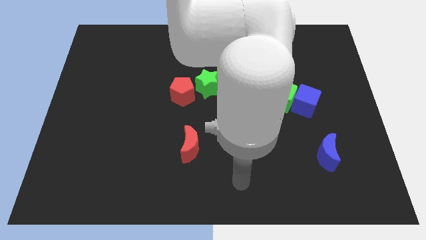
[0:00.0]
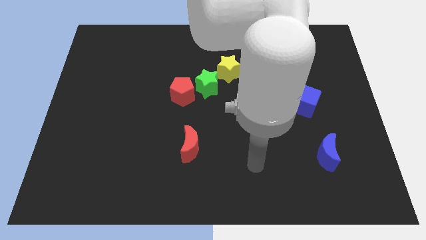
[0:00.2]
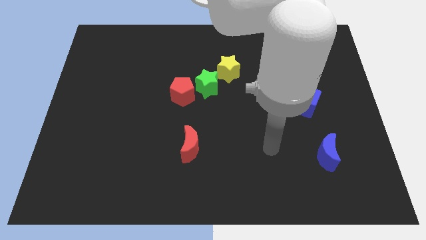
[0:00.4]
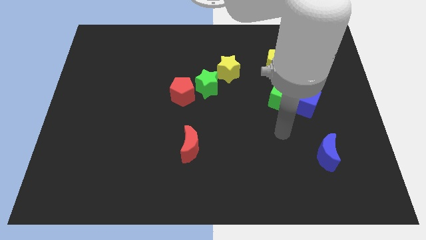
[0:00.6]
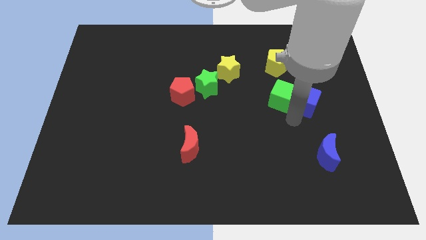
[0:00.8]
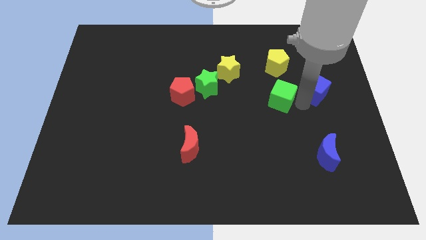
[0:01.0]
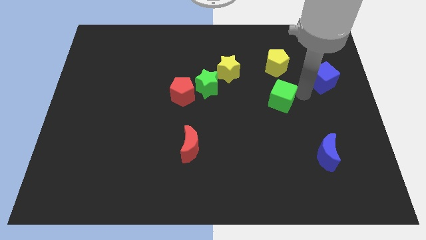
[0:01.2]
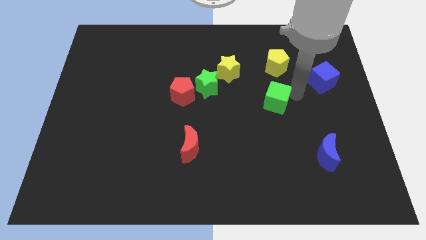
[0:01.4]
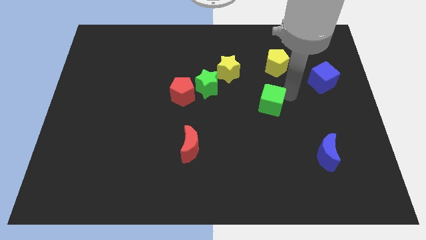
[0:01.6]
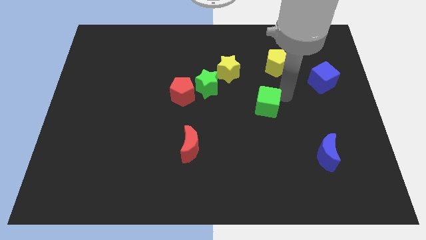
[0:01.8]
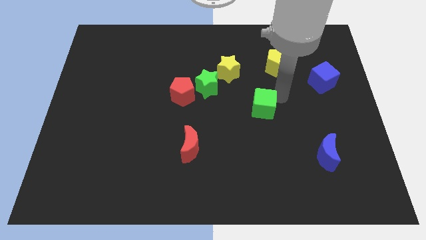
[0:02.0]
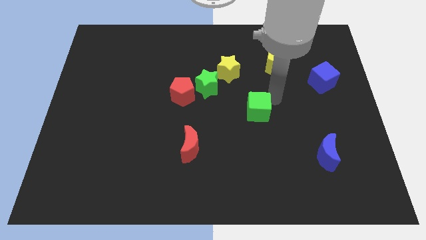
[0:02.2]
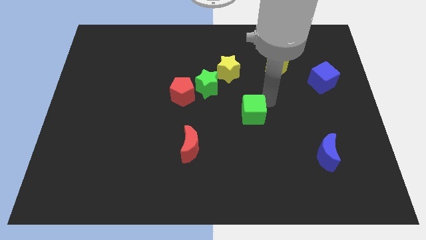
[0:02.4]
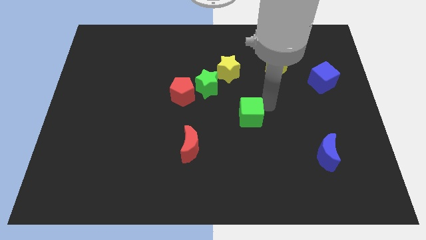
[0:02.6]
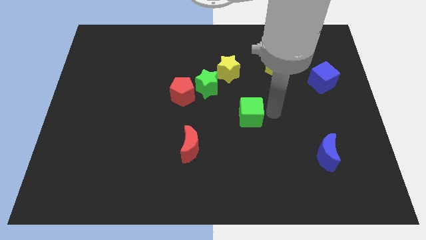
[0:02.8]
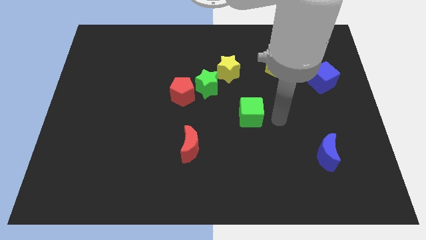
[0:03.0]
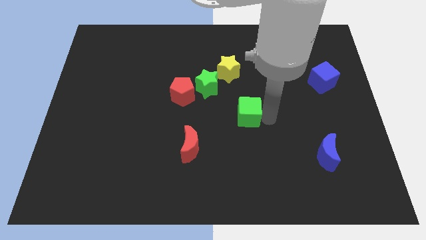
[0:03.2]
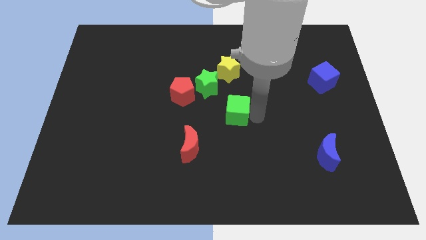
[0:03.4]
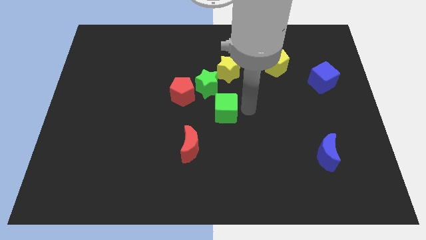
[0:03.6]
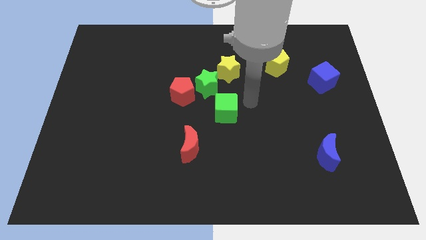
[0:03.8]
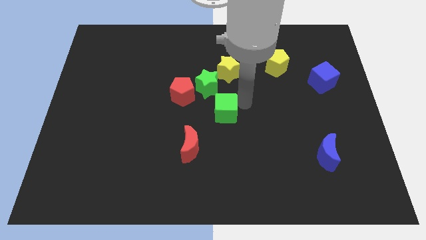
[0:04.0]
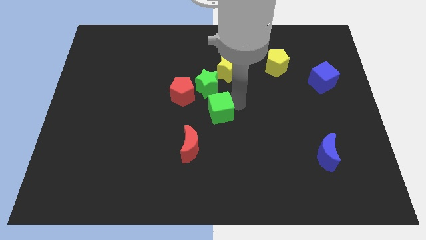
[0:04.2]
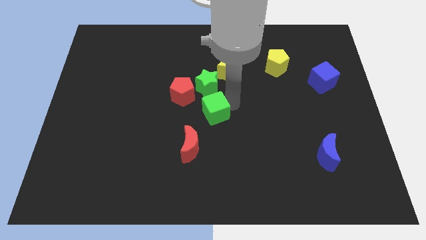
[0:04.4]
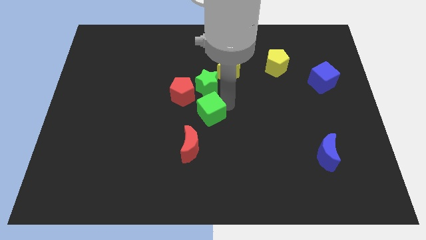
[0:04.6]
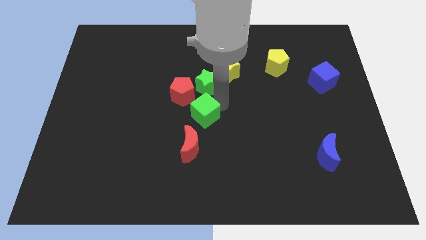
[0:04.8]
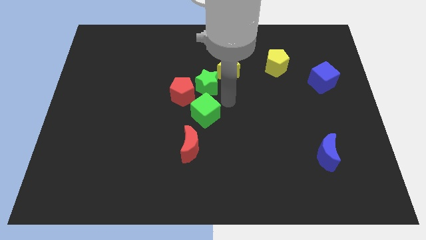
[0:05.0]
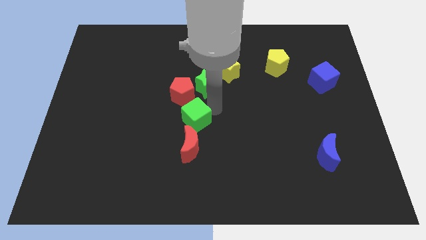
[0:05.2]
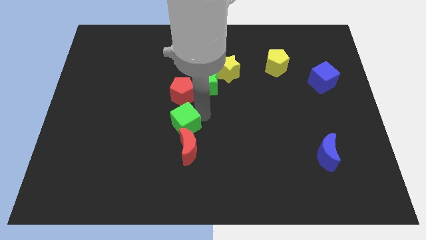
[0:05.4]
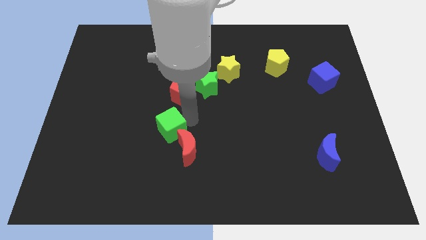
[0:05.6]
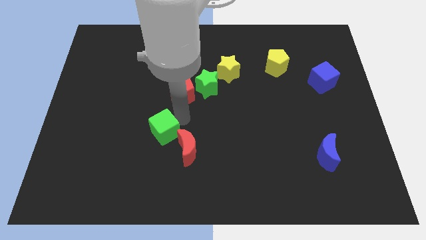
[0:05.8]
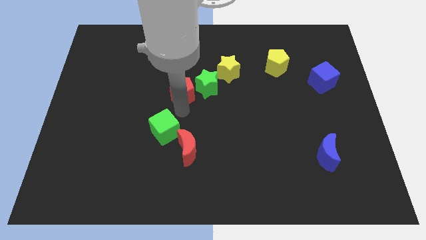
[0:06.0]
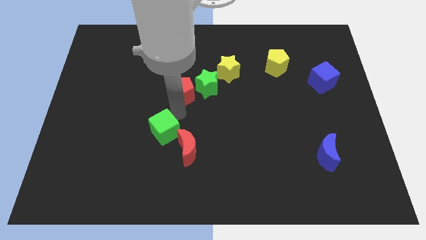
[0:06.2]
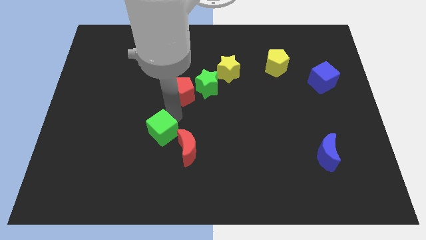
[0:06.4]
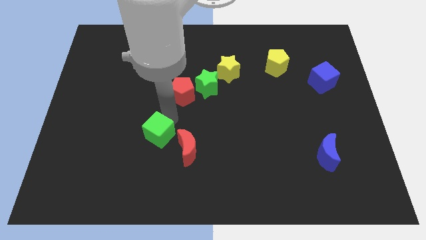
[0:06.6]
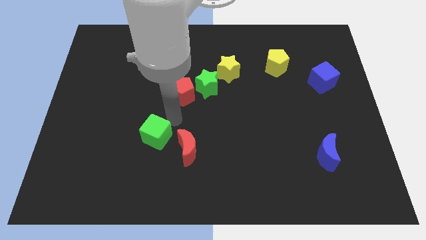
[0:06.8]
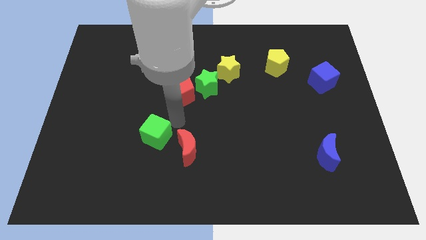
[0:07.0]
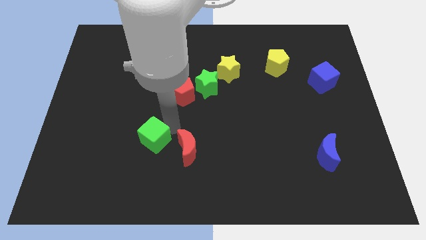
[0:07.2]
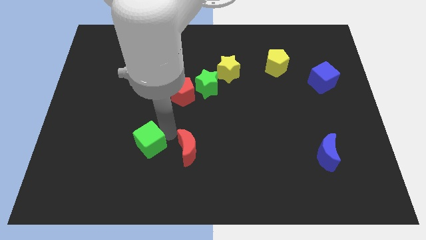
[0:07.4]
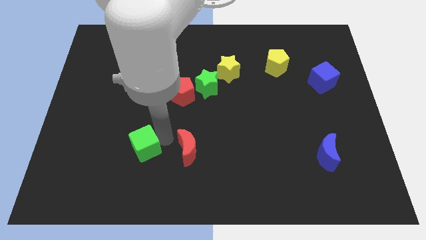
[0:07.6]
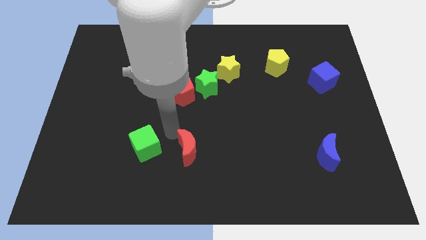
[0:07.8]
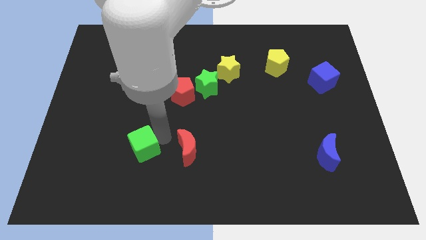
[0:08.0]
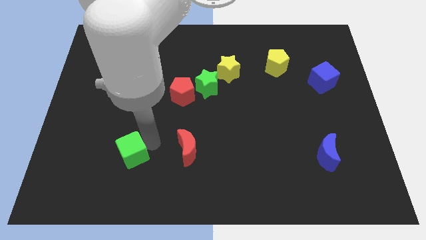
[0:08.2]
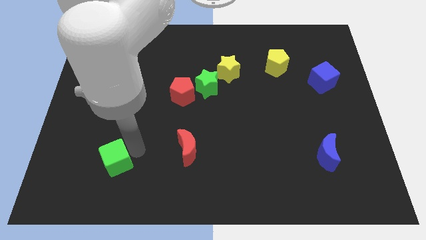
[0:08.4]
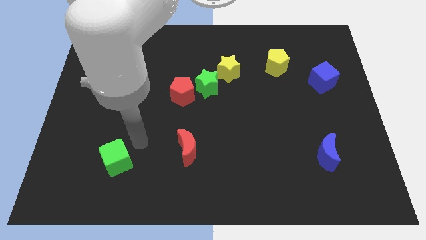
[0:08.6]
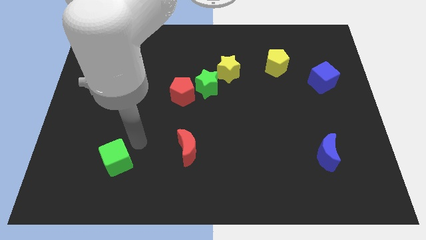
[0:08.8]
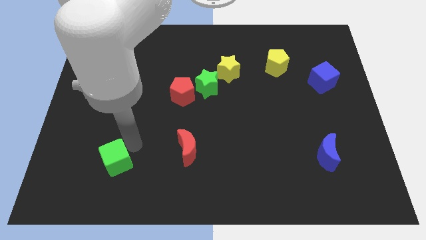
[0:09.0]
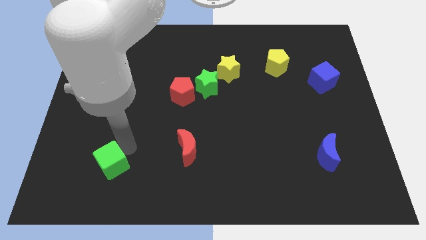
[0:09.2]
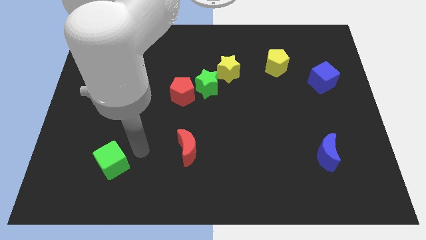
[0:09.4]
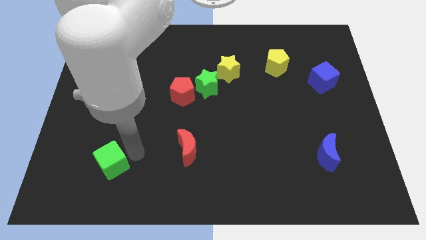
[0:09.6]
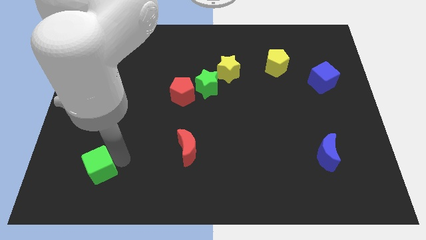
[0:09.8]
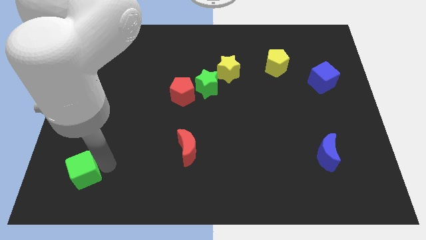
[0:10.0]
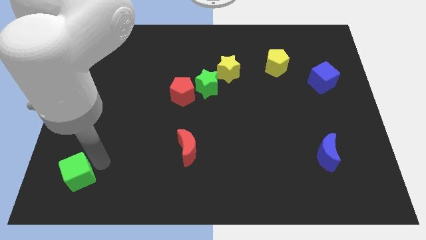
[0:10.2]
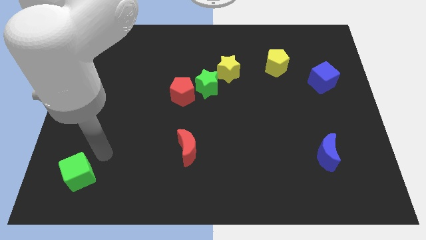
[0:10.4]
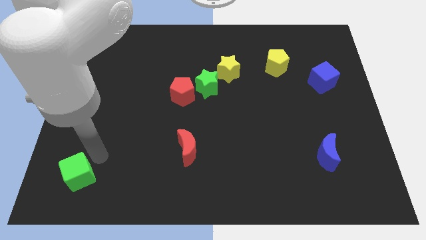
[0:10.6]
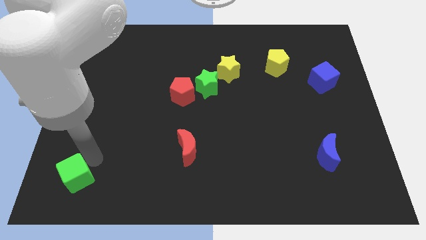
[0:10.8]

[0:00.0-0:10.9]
put the green cube to the lower left corner

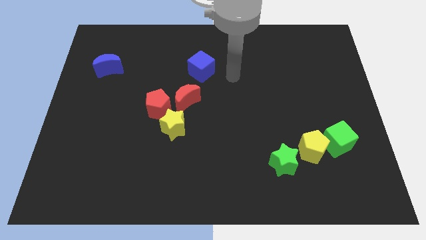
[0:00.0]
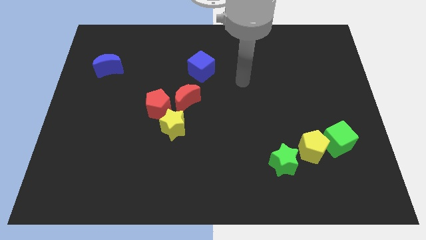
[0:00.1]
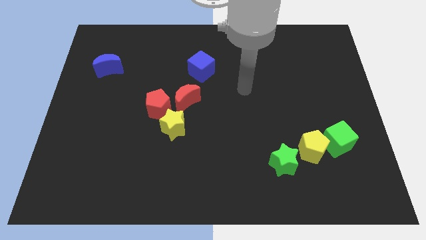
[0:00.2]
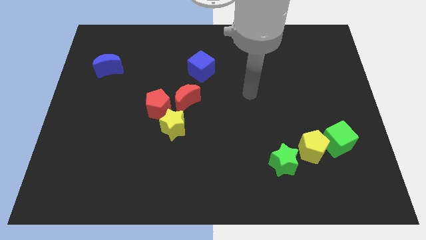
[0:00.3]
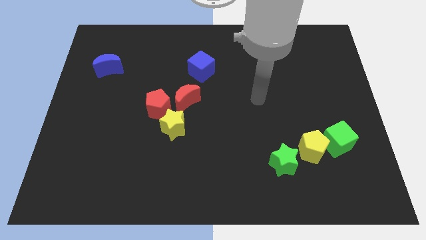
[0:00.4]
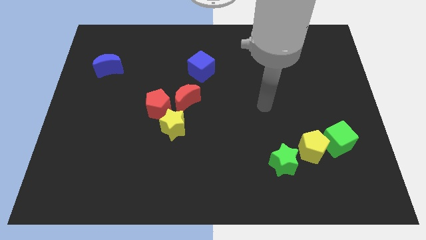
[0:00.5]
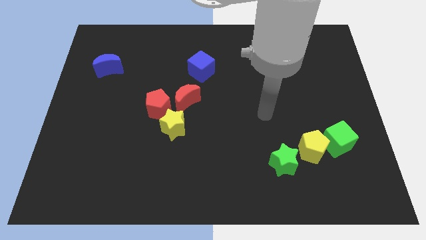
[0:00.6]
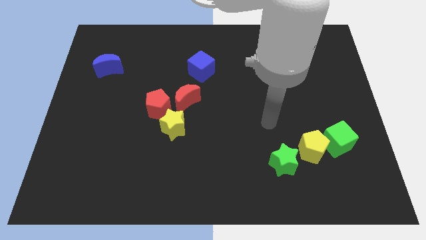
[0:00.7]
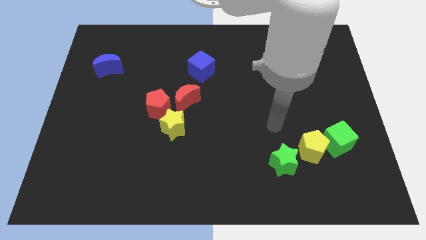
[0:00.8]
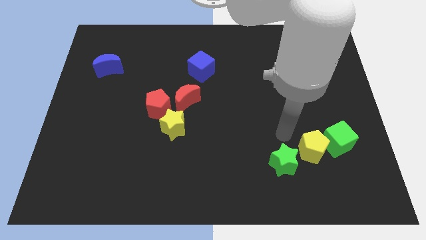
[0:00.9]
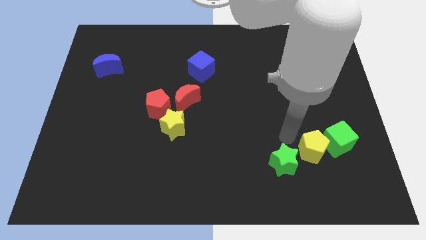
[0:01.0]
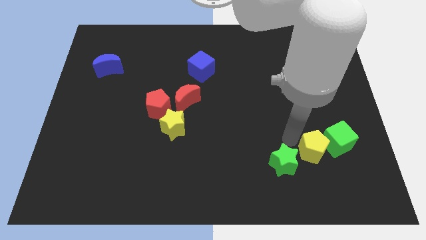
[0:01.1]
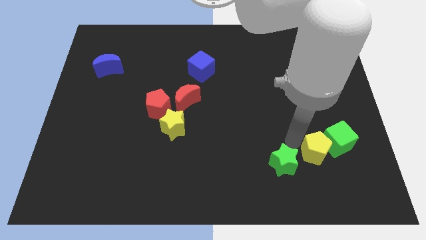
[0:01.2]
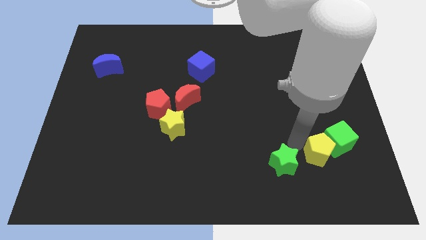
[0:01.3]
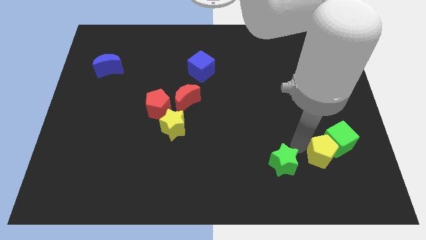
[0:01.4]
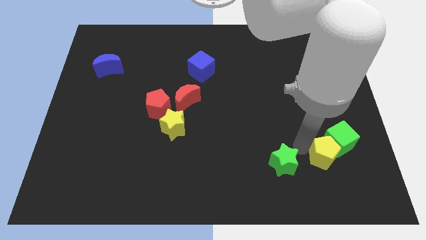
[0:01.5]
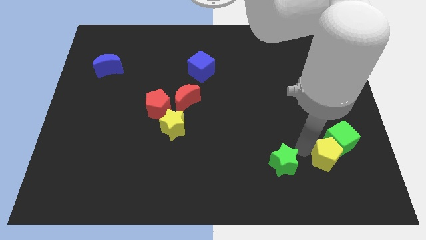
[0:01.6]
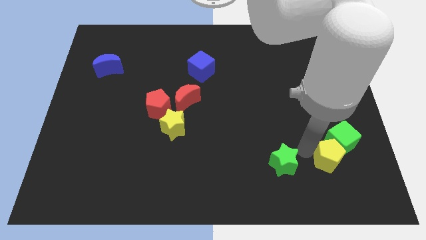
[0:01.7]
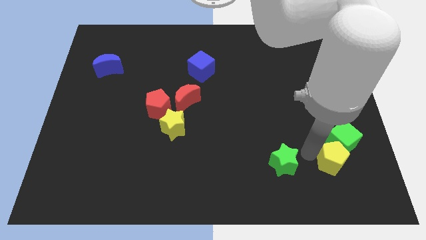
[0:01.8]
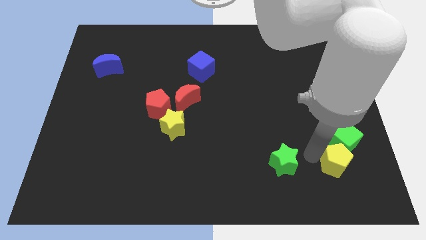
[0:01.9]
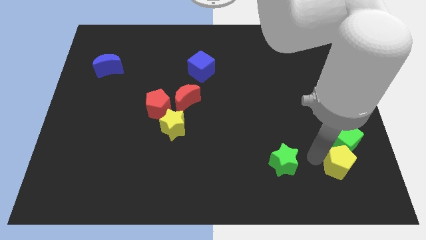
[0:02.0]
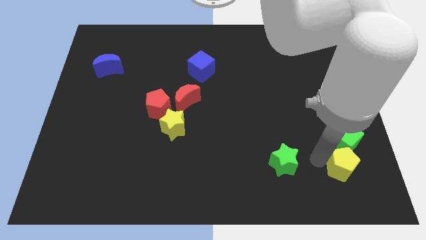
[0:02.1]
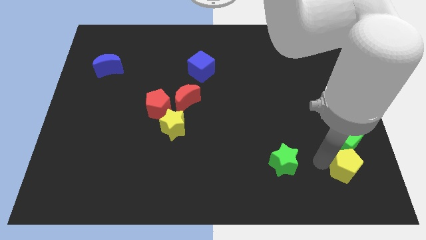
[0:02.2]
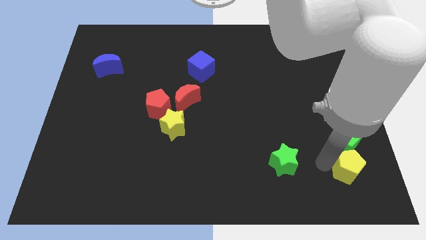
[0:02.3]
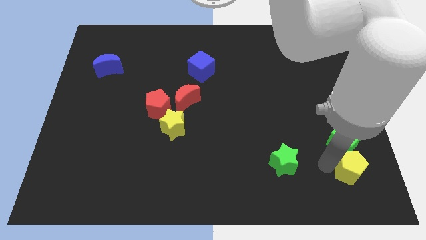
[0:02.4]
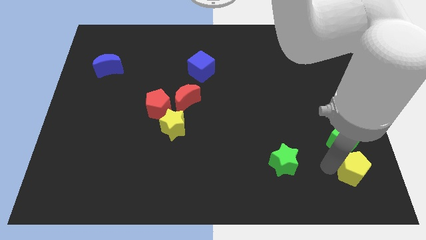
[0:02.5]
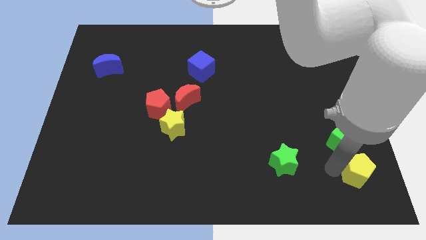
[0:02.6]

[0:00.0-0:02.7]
move the yellow pentagon to the bottom right of the board

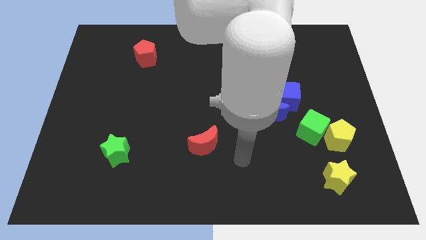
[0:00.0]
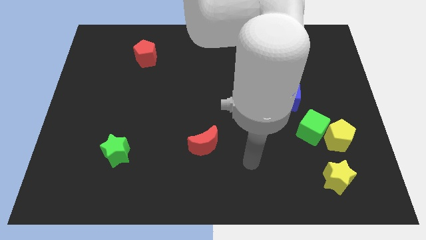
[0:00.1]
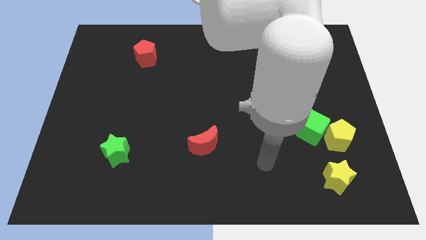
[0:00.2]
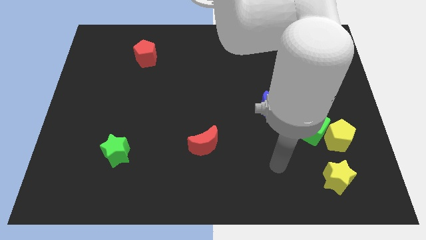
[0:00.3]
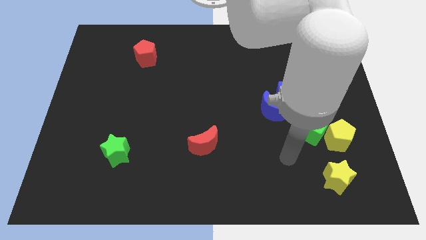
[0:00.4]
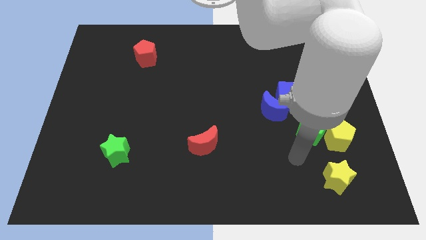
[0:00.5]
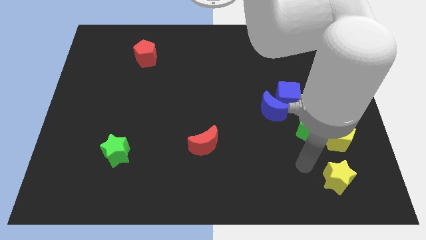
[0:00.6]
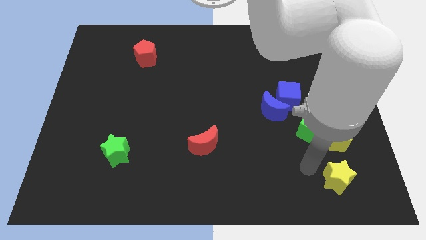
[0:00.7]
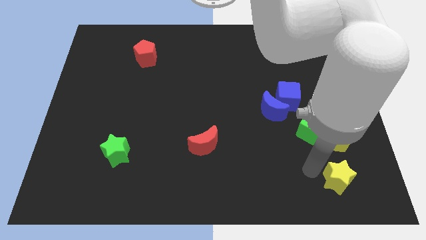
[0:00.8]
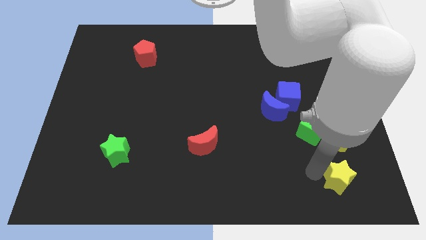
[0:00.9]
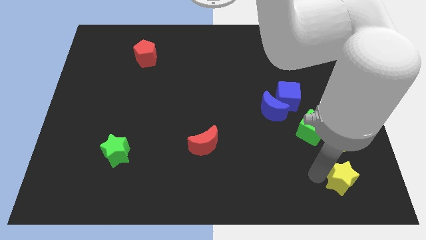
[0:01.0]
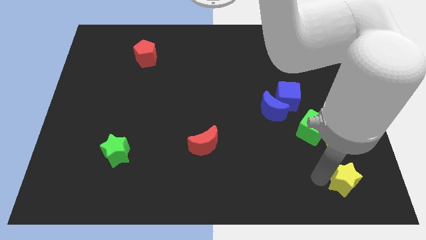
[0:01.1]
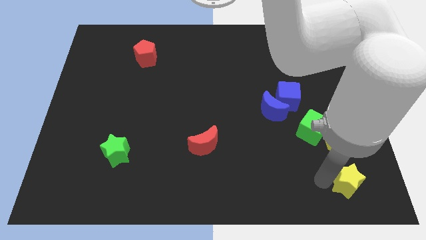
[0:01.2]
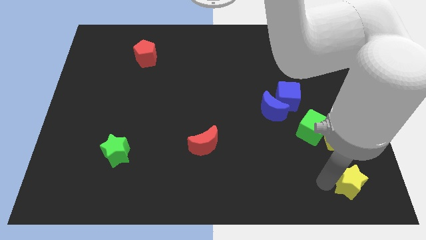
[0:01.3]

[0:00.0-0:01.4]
slide the yellow star to the bottom right
